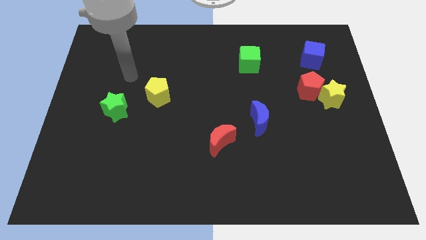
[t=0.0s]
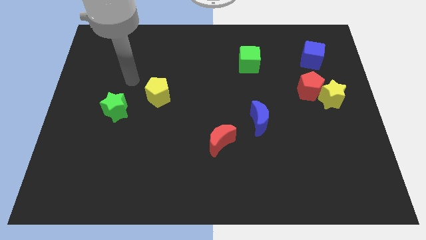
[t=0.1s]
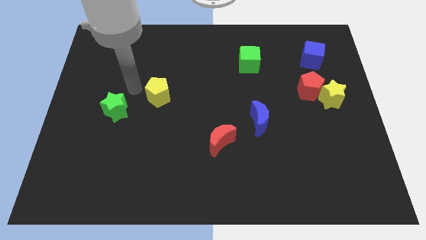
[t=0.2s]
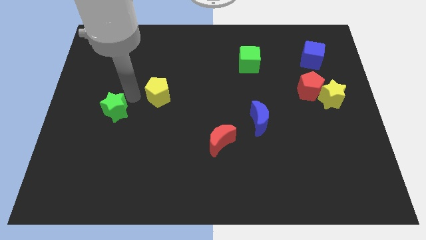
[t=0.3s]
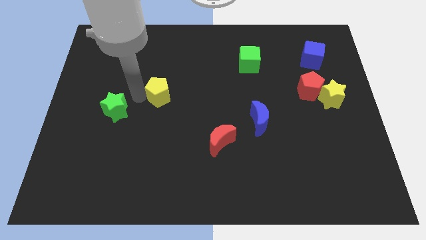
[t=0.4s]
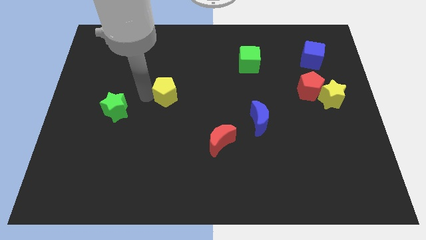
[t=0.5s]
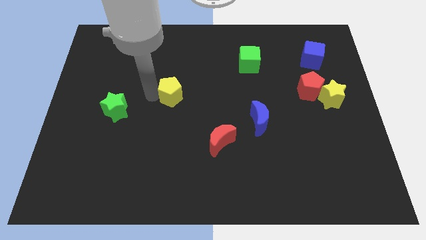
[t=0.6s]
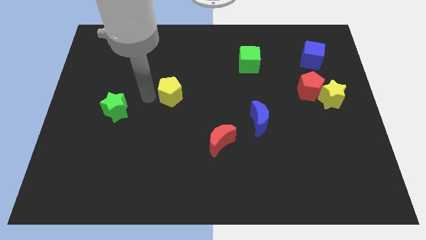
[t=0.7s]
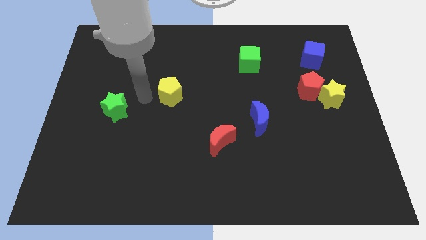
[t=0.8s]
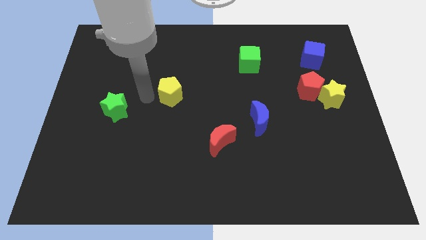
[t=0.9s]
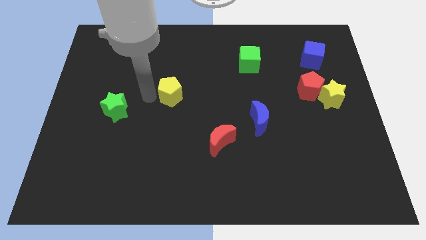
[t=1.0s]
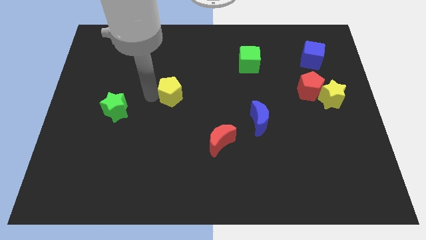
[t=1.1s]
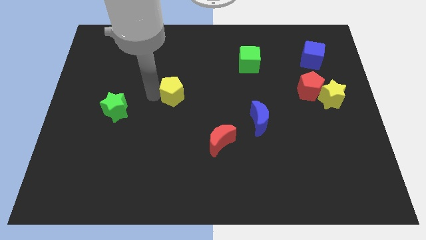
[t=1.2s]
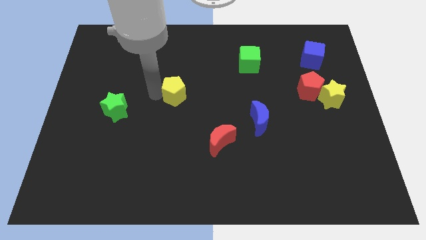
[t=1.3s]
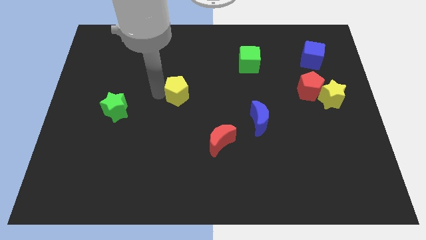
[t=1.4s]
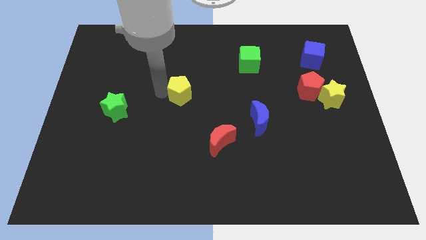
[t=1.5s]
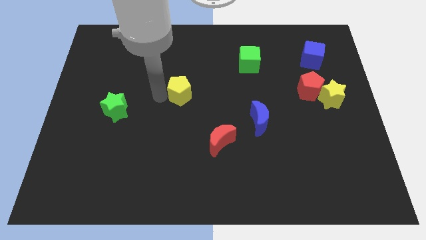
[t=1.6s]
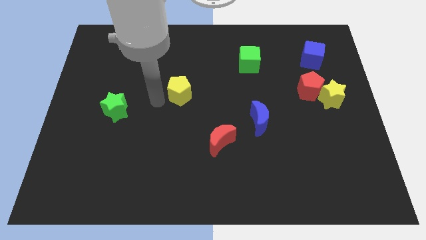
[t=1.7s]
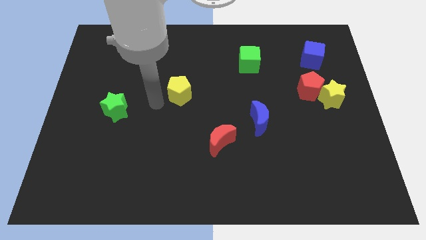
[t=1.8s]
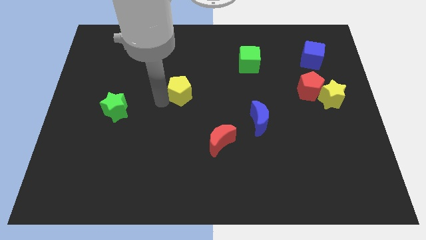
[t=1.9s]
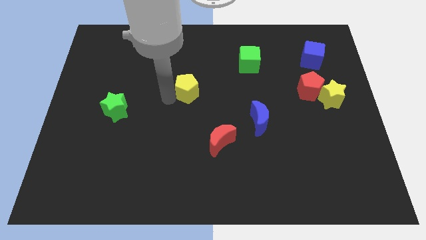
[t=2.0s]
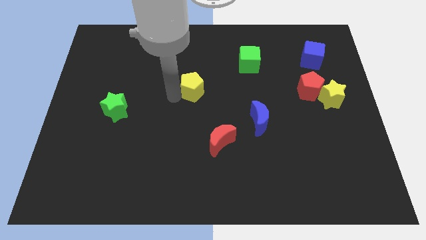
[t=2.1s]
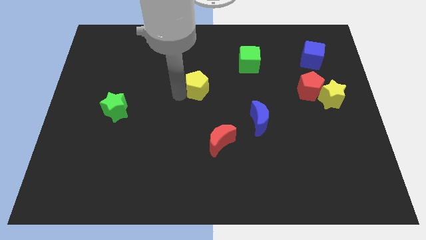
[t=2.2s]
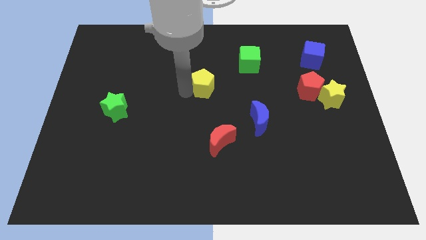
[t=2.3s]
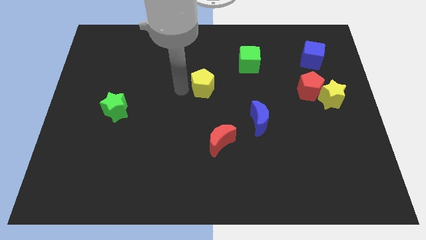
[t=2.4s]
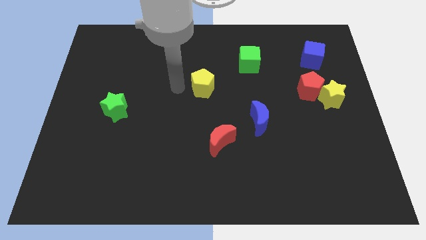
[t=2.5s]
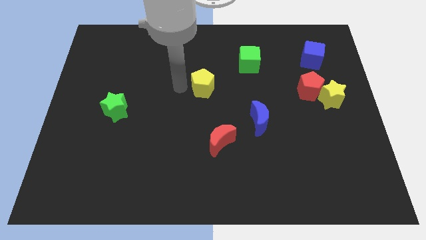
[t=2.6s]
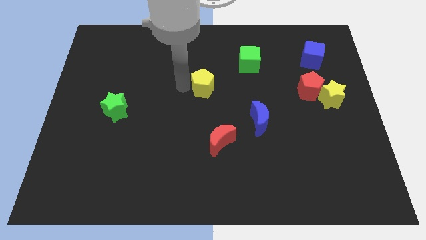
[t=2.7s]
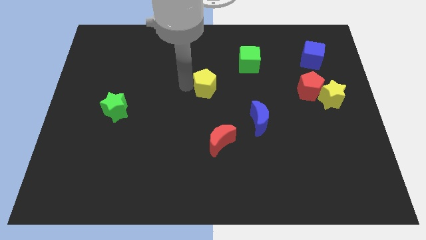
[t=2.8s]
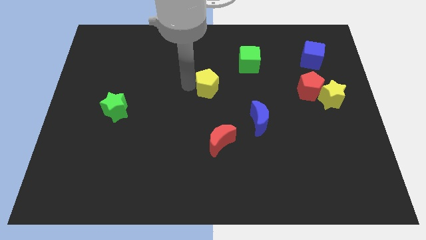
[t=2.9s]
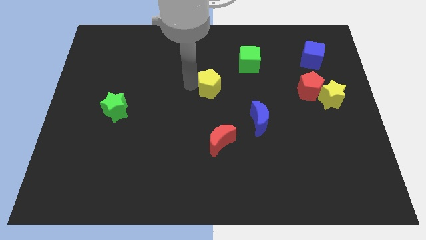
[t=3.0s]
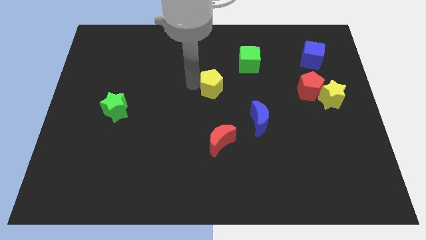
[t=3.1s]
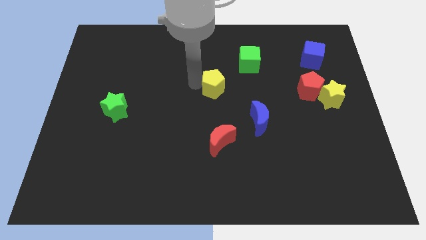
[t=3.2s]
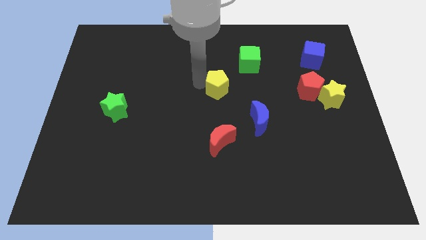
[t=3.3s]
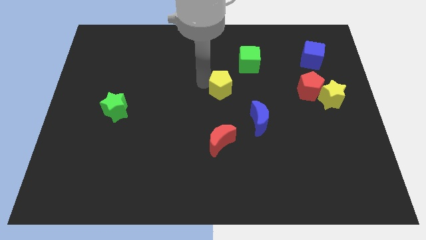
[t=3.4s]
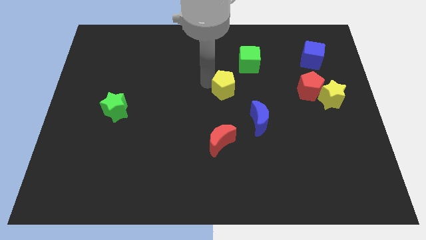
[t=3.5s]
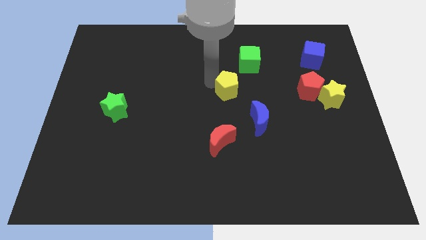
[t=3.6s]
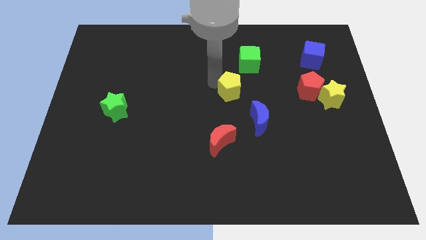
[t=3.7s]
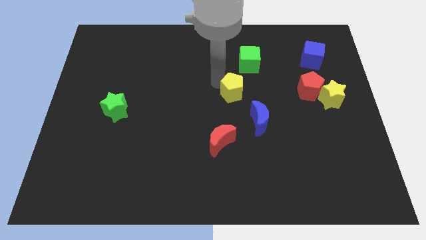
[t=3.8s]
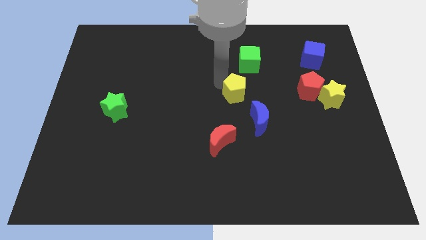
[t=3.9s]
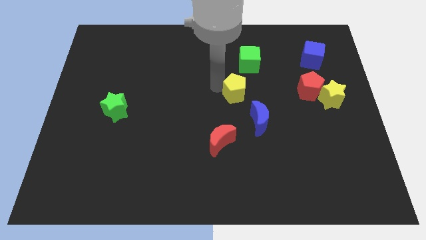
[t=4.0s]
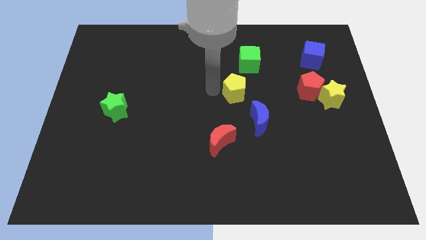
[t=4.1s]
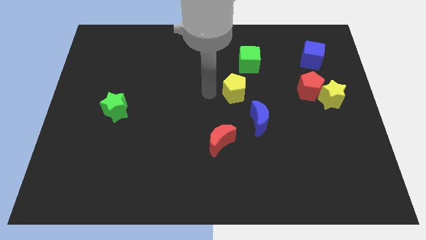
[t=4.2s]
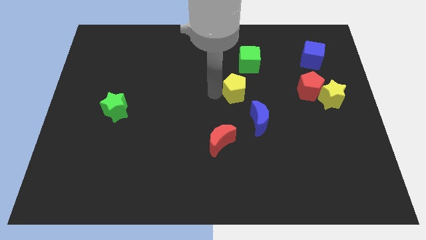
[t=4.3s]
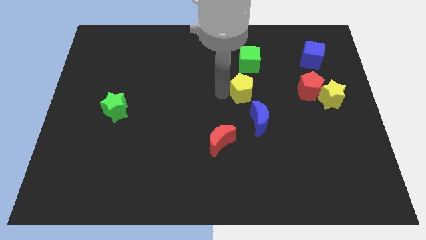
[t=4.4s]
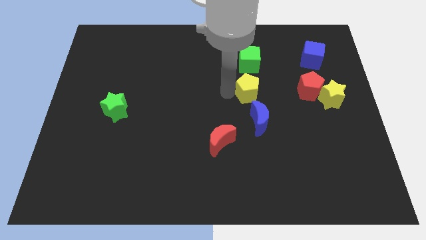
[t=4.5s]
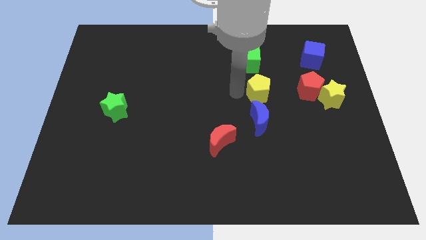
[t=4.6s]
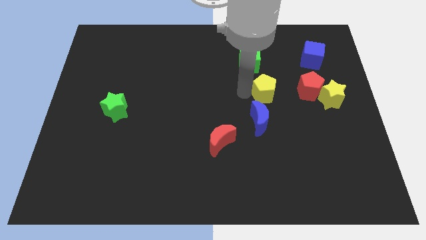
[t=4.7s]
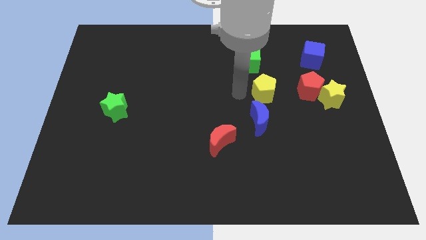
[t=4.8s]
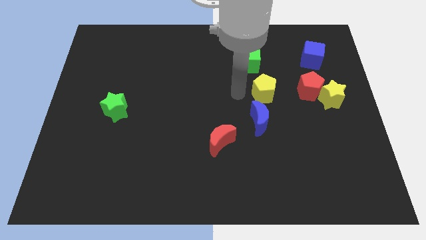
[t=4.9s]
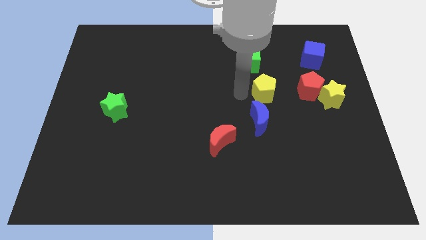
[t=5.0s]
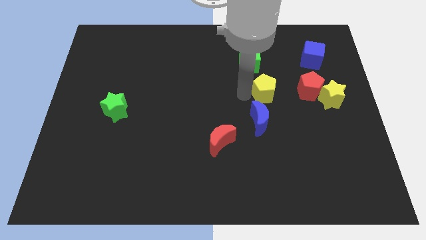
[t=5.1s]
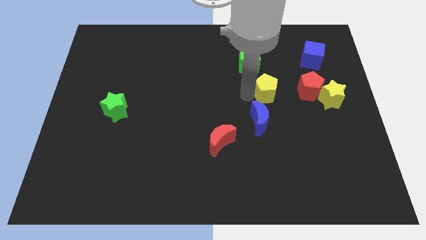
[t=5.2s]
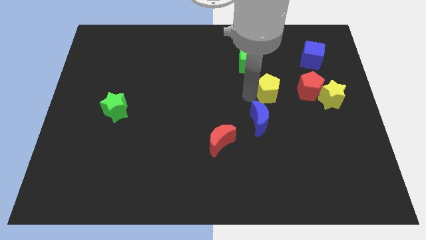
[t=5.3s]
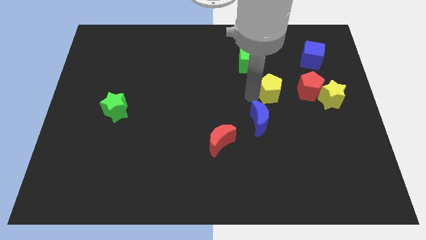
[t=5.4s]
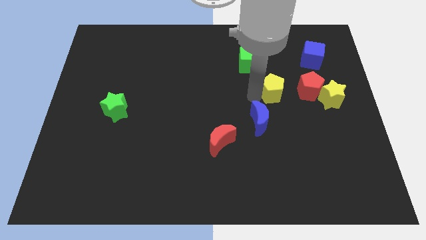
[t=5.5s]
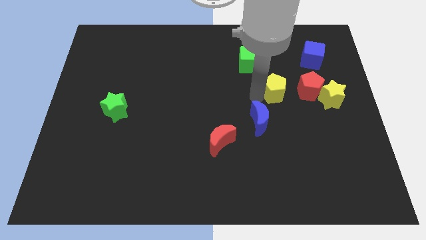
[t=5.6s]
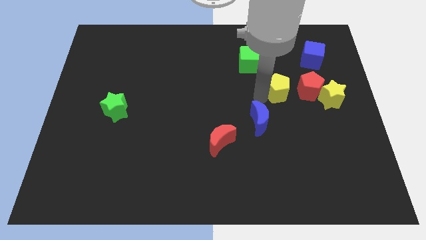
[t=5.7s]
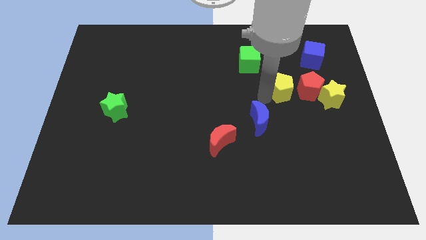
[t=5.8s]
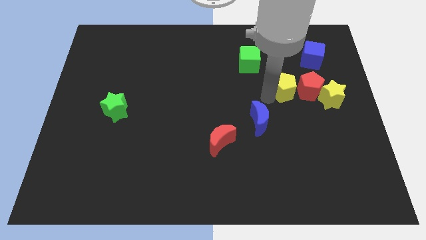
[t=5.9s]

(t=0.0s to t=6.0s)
slide the yellow pentagon to the red pentagon
